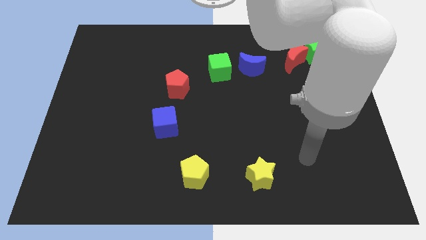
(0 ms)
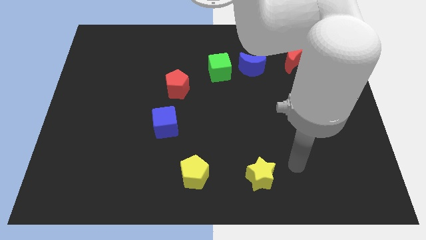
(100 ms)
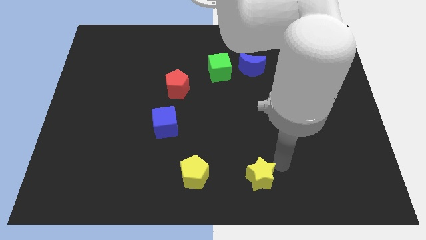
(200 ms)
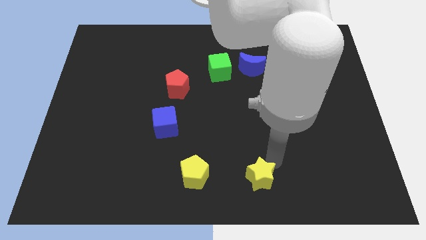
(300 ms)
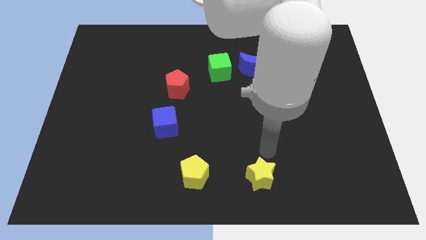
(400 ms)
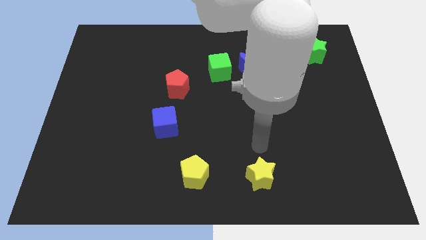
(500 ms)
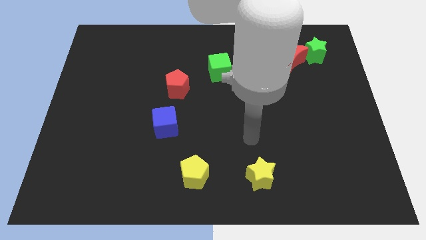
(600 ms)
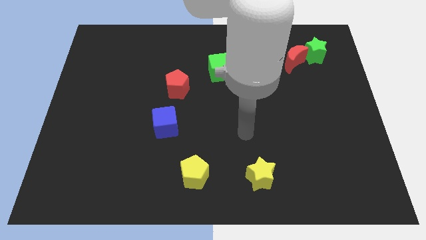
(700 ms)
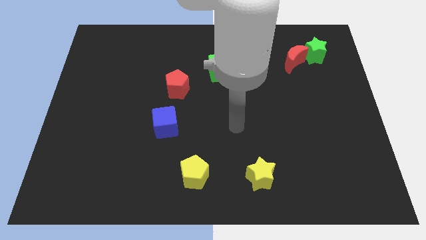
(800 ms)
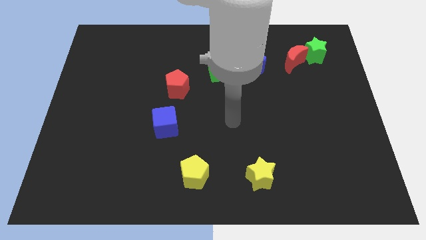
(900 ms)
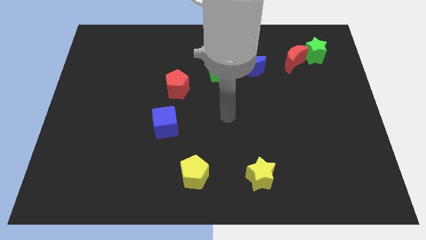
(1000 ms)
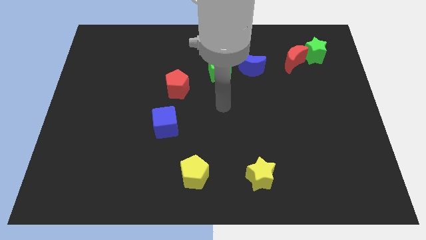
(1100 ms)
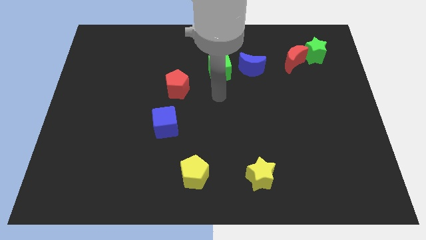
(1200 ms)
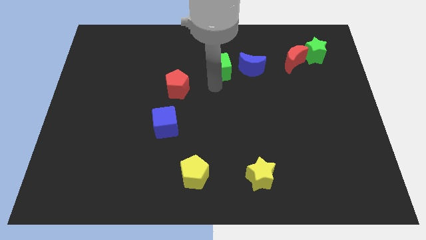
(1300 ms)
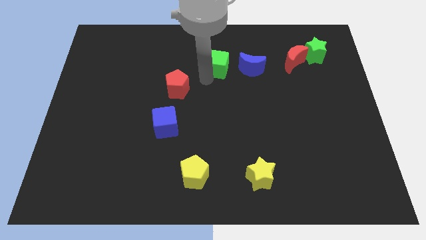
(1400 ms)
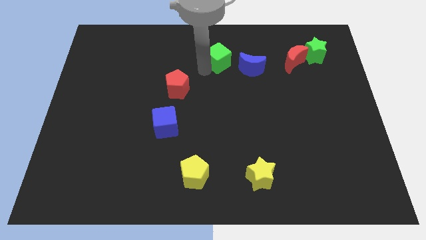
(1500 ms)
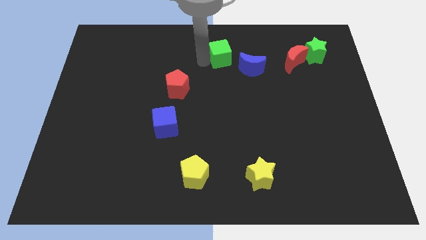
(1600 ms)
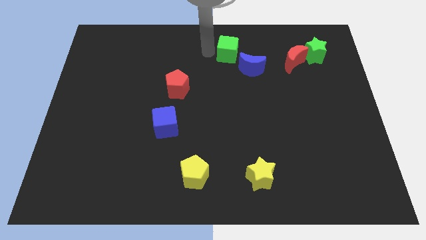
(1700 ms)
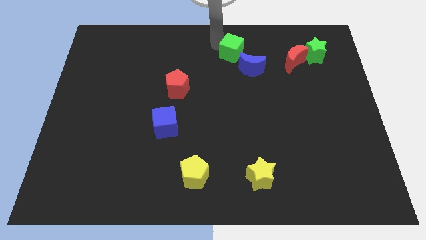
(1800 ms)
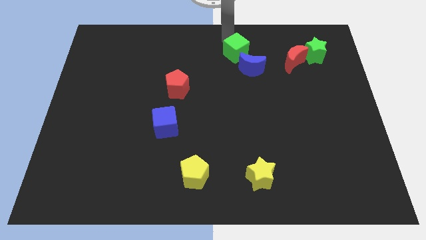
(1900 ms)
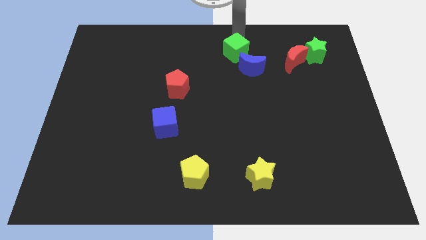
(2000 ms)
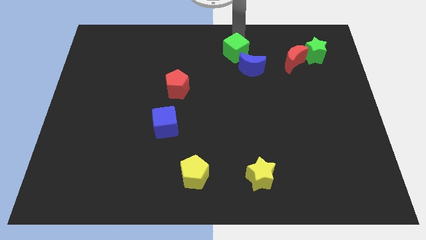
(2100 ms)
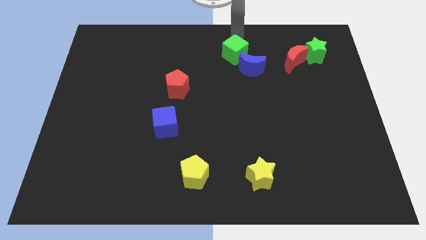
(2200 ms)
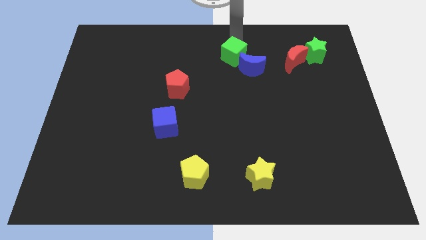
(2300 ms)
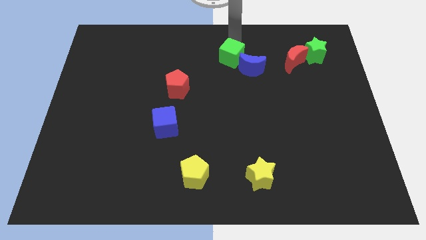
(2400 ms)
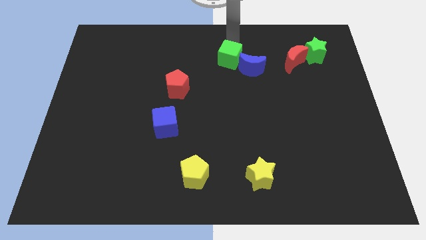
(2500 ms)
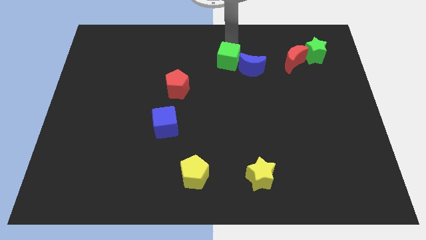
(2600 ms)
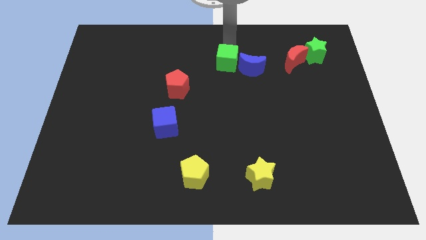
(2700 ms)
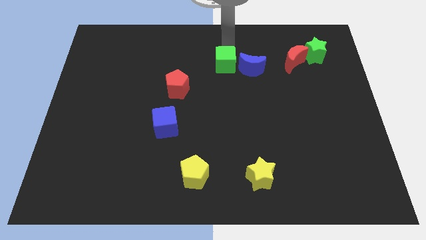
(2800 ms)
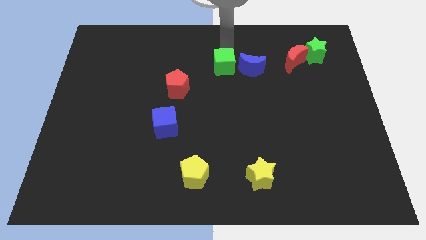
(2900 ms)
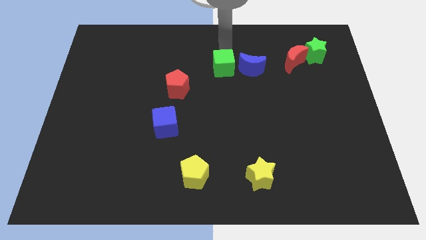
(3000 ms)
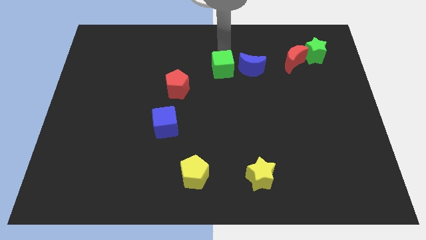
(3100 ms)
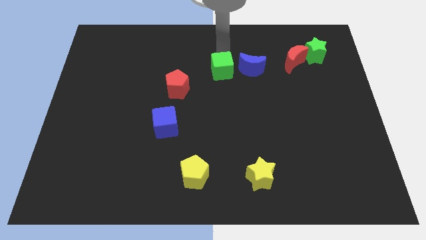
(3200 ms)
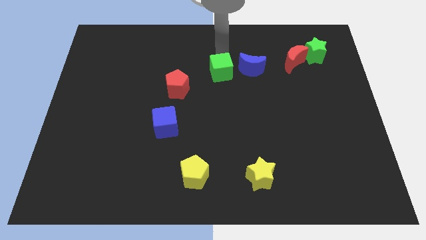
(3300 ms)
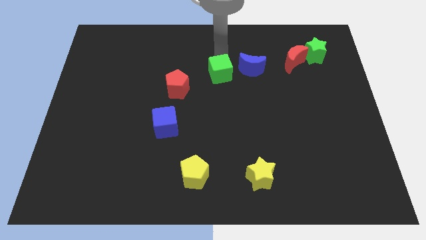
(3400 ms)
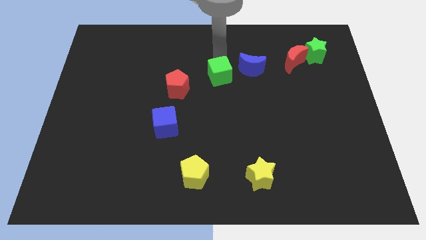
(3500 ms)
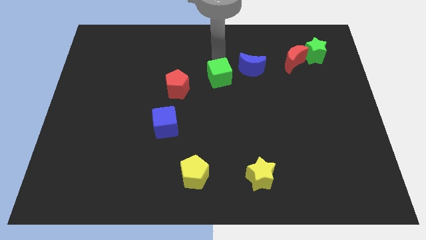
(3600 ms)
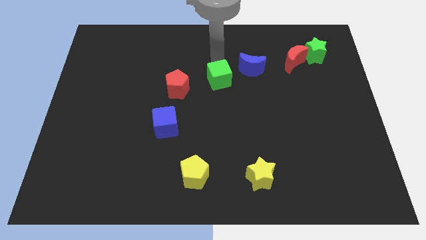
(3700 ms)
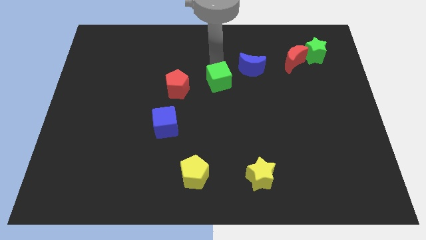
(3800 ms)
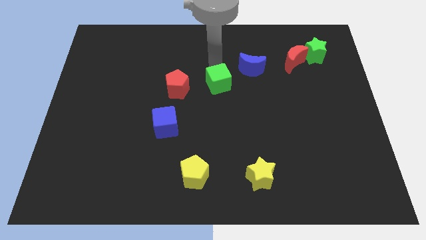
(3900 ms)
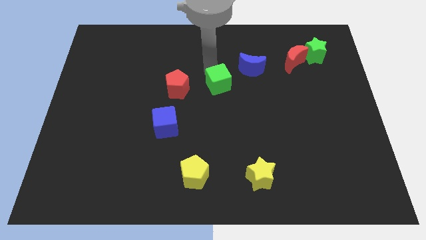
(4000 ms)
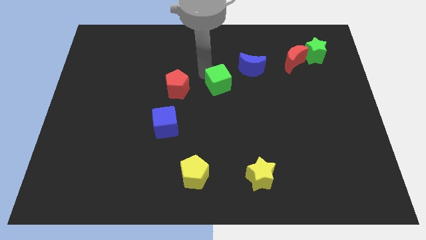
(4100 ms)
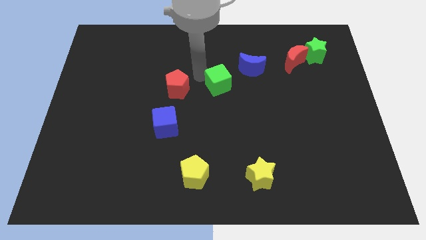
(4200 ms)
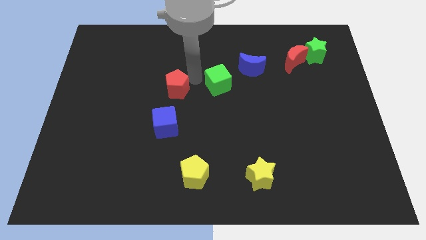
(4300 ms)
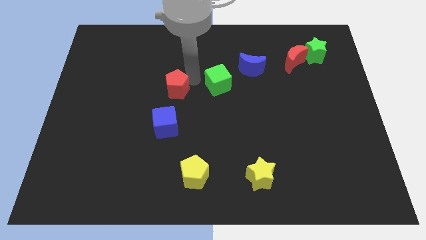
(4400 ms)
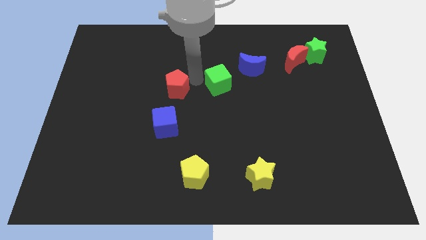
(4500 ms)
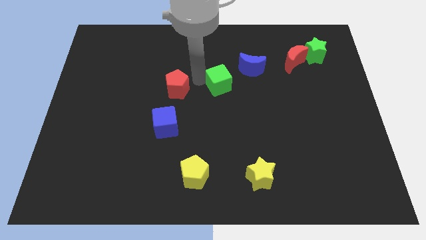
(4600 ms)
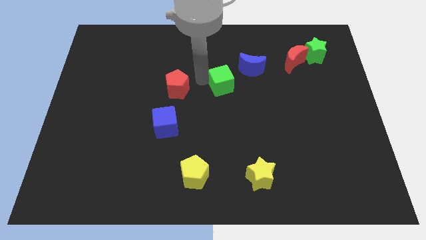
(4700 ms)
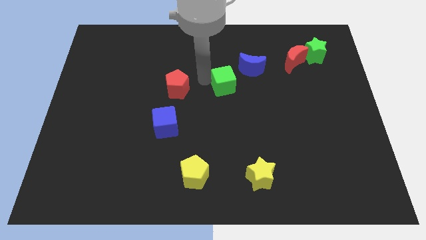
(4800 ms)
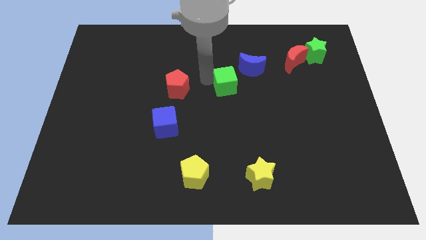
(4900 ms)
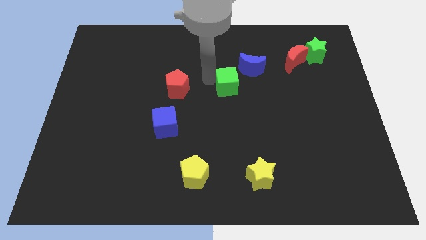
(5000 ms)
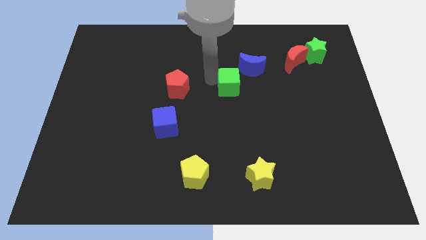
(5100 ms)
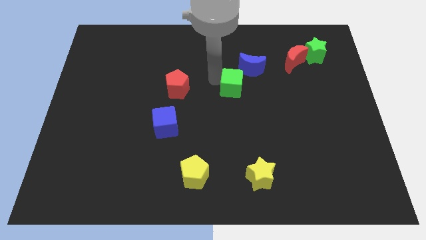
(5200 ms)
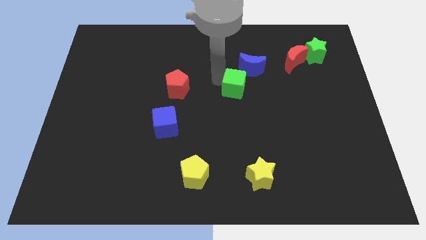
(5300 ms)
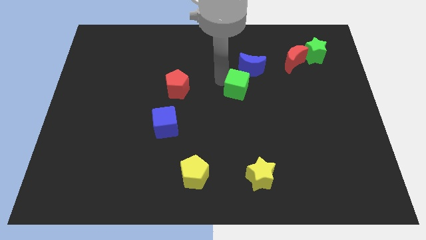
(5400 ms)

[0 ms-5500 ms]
slightly move the green cube diagonally downwards and to the right

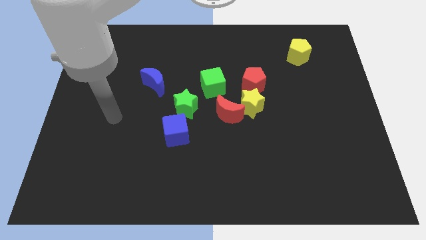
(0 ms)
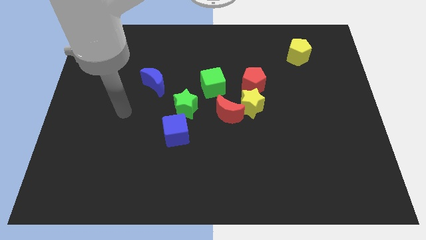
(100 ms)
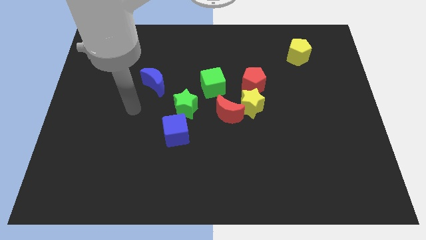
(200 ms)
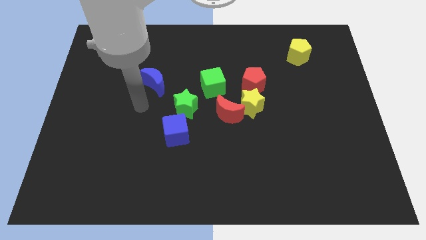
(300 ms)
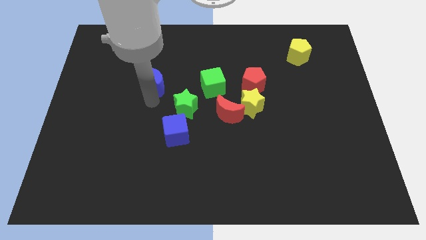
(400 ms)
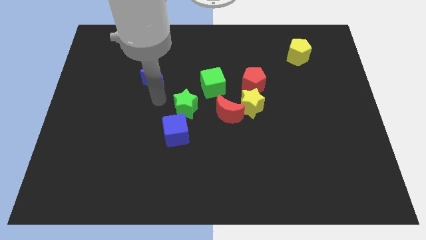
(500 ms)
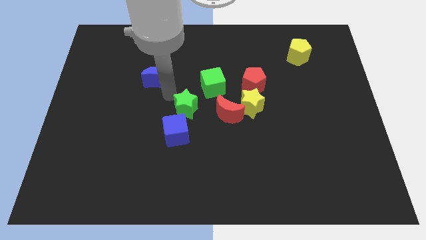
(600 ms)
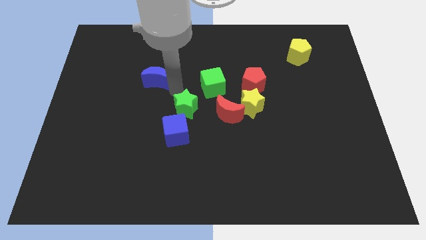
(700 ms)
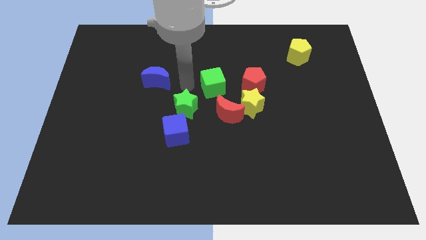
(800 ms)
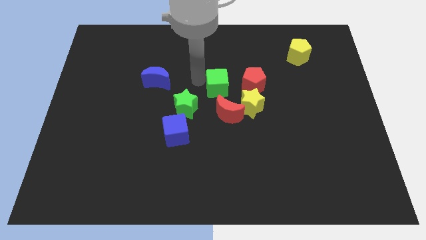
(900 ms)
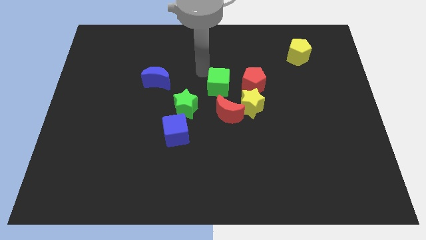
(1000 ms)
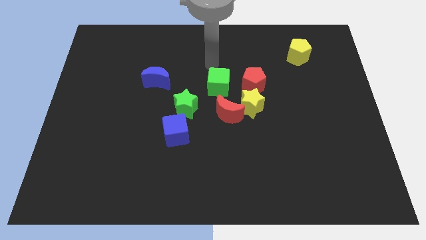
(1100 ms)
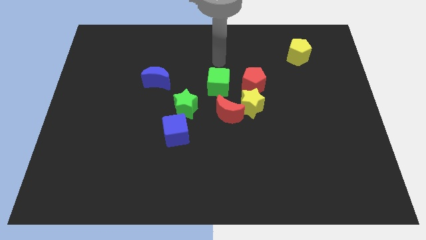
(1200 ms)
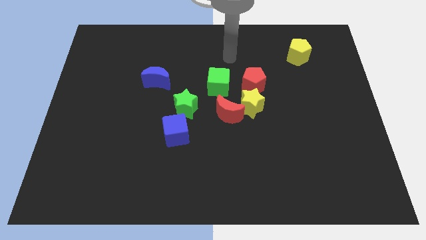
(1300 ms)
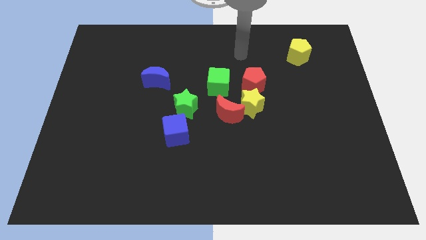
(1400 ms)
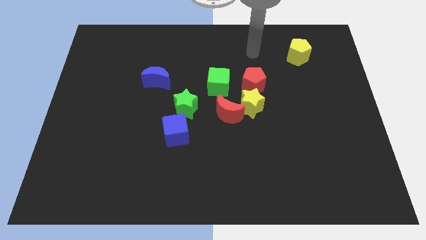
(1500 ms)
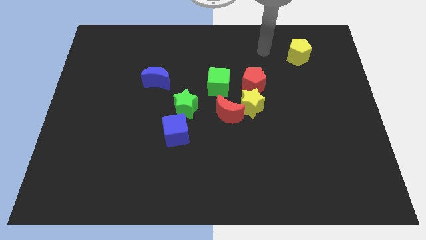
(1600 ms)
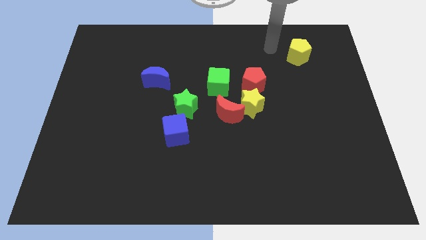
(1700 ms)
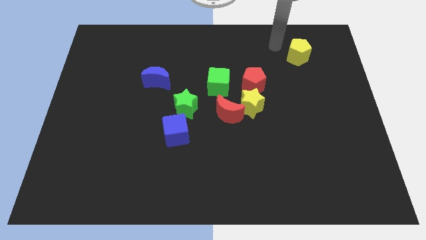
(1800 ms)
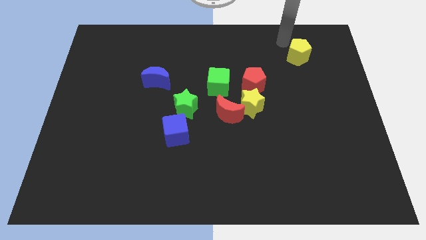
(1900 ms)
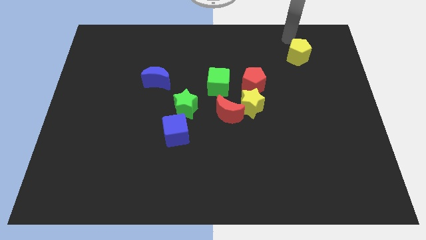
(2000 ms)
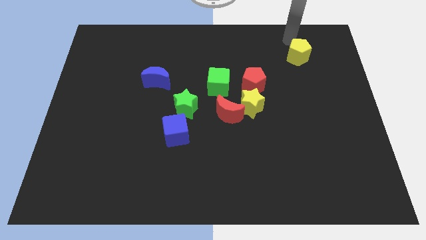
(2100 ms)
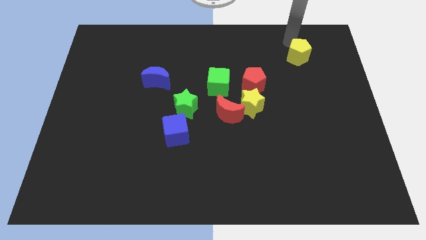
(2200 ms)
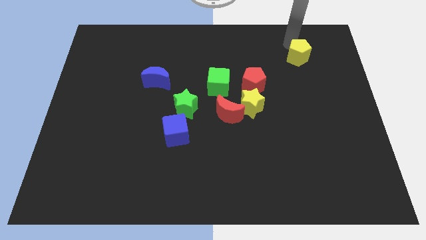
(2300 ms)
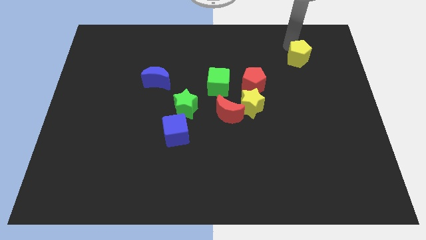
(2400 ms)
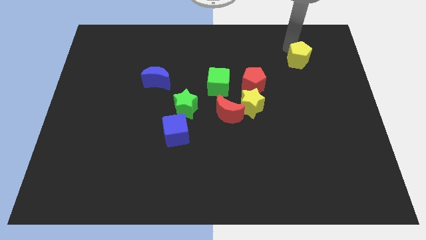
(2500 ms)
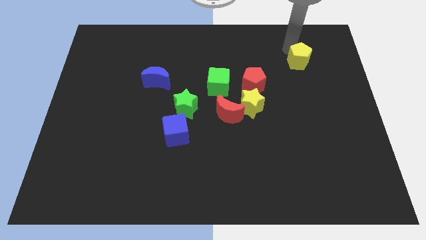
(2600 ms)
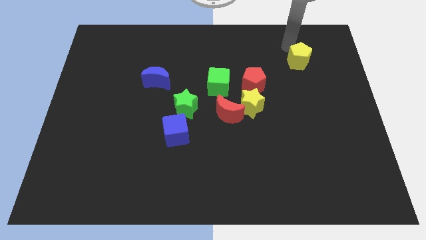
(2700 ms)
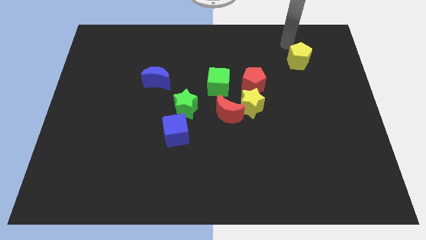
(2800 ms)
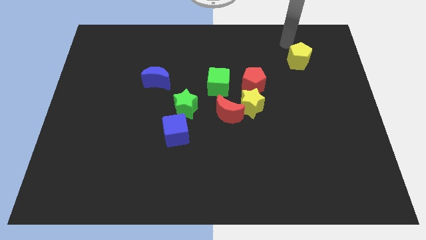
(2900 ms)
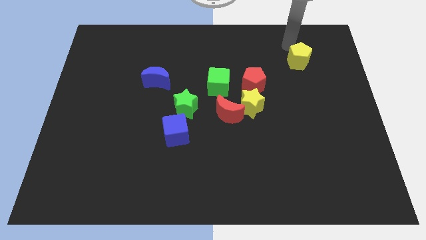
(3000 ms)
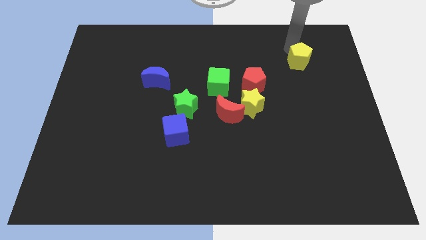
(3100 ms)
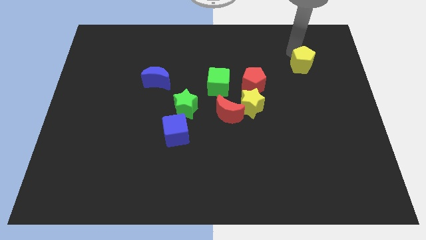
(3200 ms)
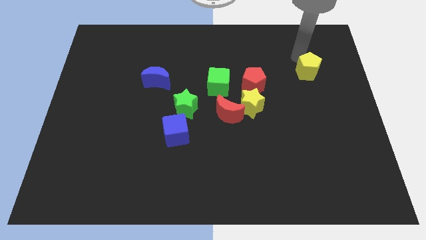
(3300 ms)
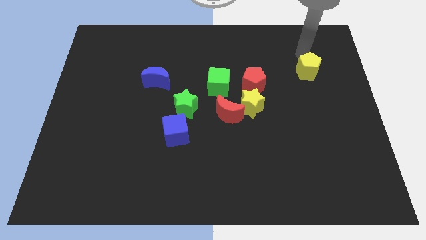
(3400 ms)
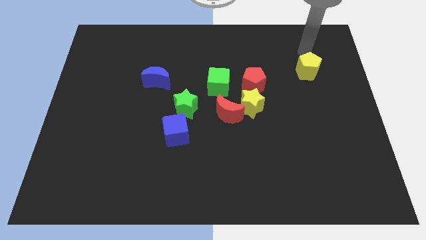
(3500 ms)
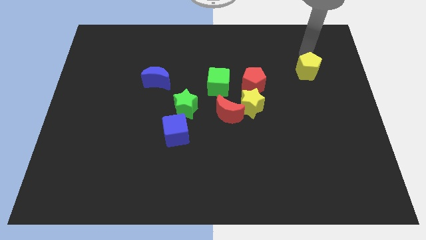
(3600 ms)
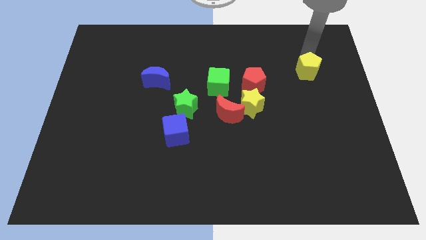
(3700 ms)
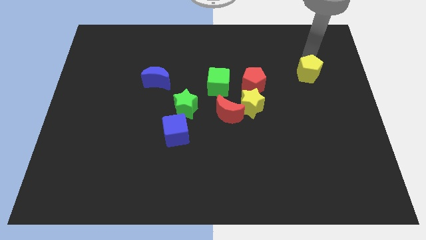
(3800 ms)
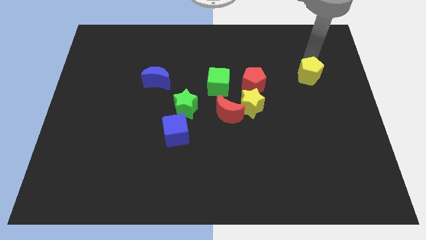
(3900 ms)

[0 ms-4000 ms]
slightly move the yellow pentagon down
